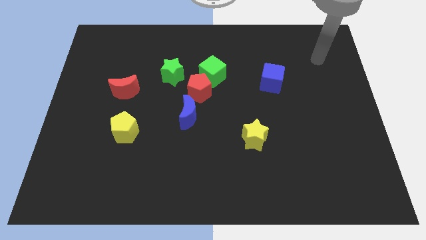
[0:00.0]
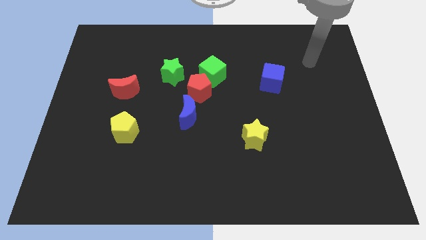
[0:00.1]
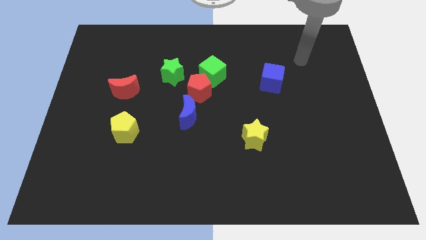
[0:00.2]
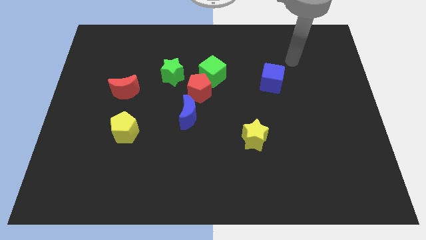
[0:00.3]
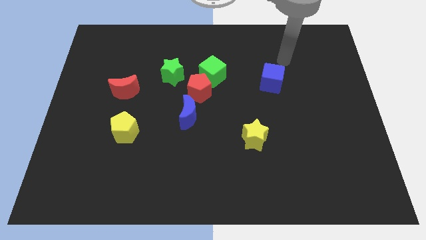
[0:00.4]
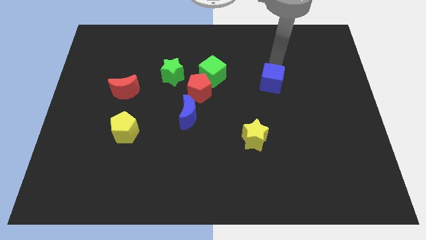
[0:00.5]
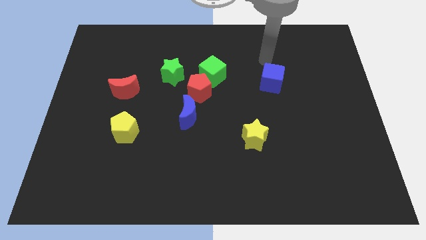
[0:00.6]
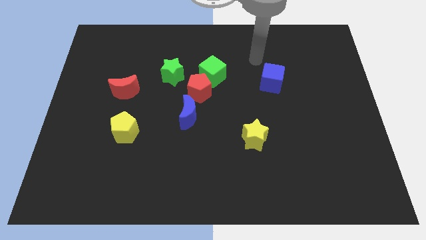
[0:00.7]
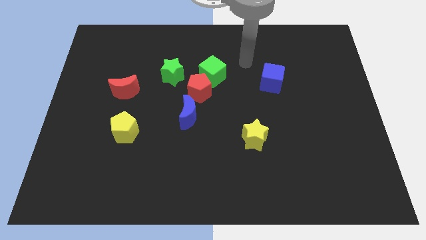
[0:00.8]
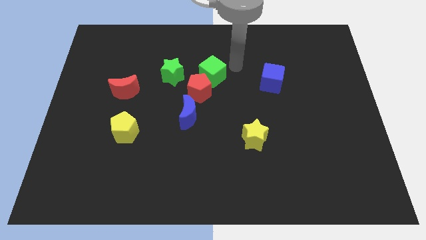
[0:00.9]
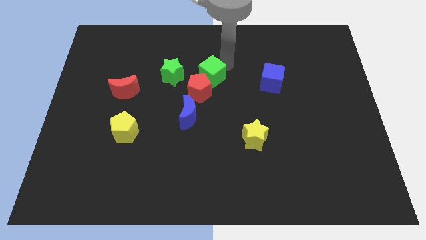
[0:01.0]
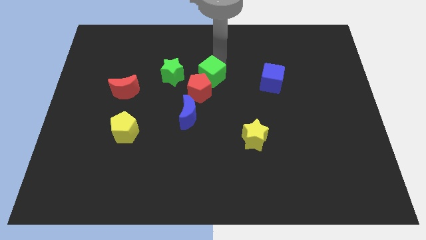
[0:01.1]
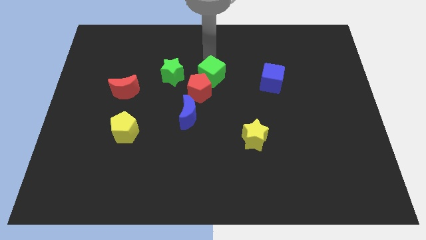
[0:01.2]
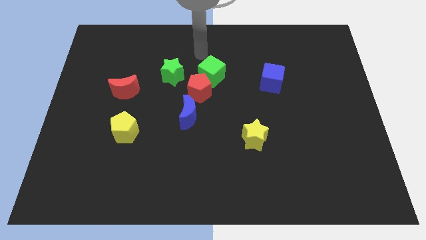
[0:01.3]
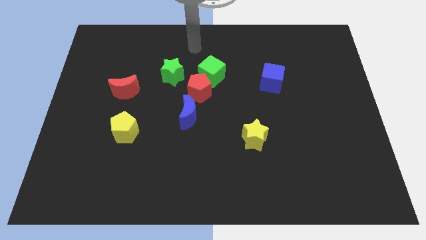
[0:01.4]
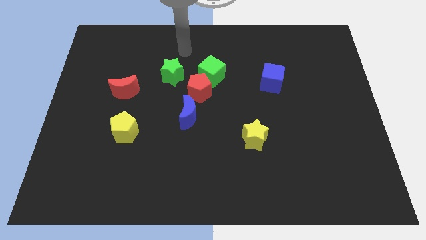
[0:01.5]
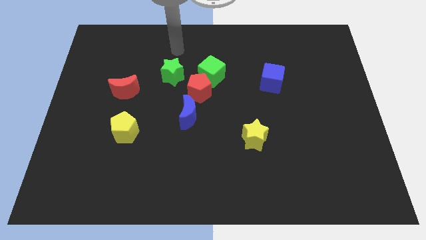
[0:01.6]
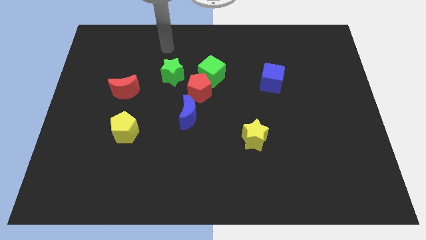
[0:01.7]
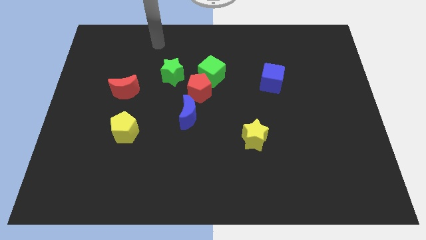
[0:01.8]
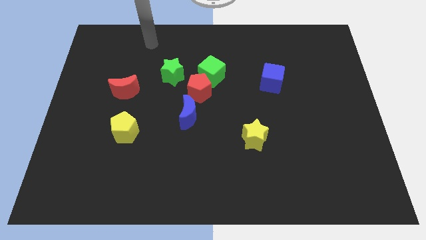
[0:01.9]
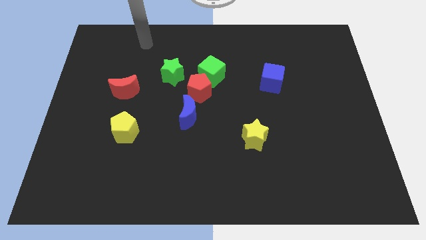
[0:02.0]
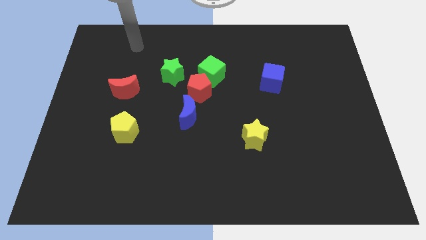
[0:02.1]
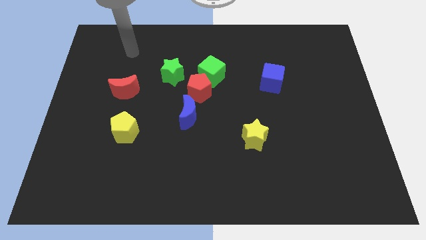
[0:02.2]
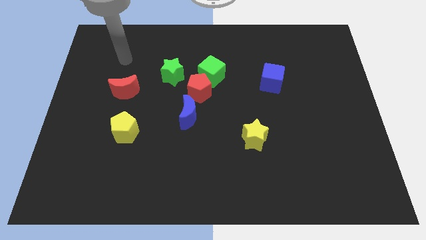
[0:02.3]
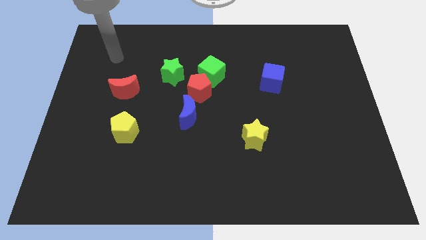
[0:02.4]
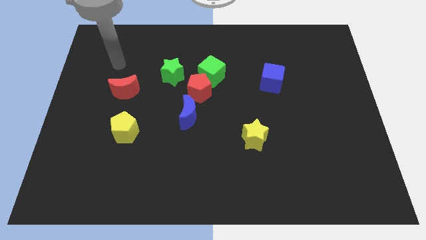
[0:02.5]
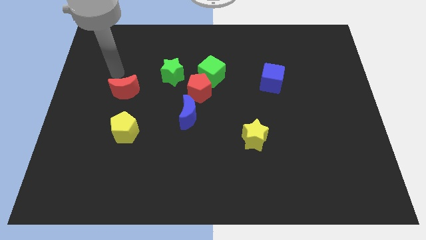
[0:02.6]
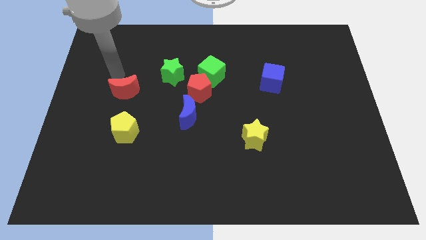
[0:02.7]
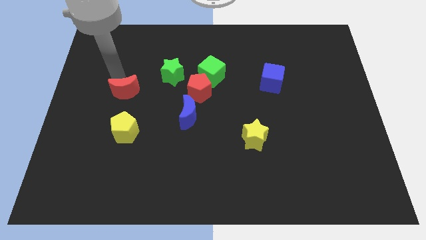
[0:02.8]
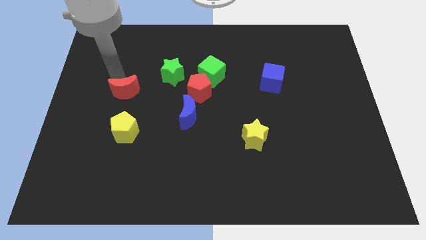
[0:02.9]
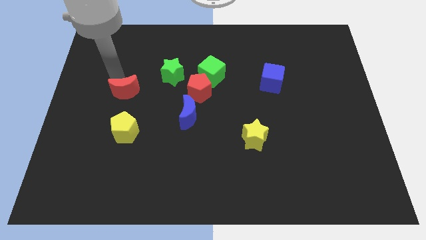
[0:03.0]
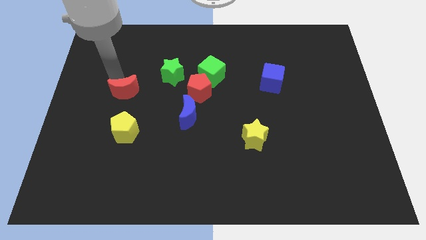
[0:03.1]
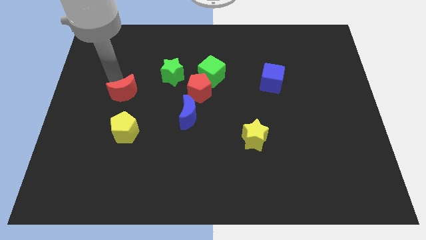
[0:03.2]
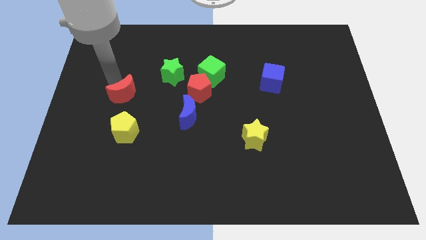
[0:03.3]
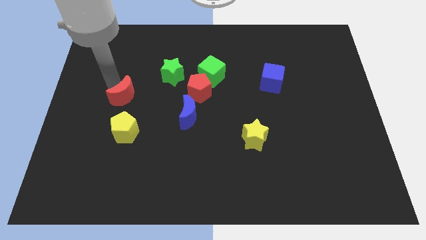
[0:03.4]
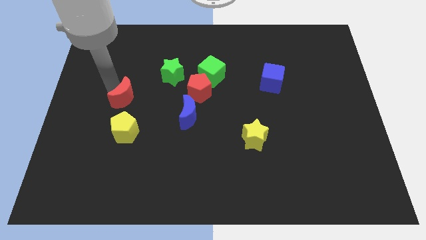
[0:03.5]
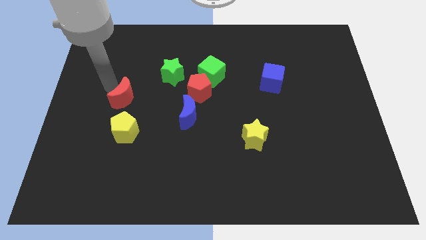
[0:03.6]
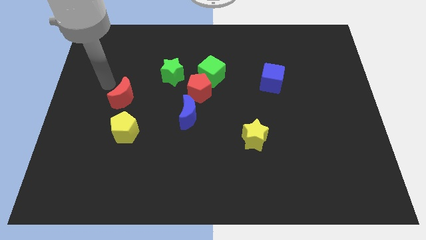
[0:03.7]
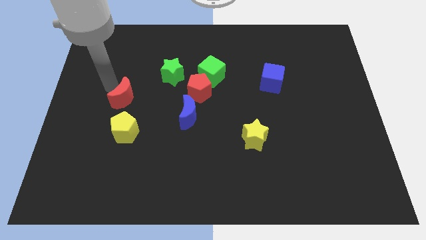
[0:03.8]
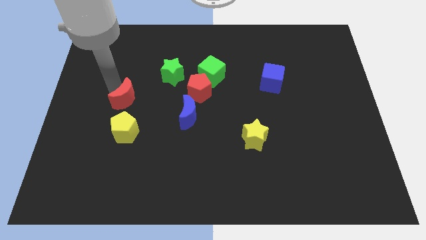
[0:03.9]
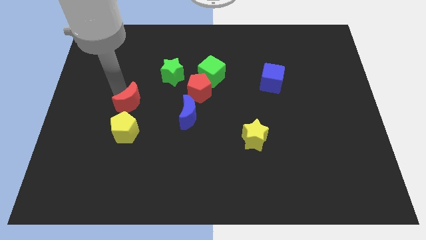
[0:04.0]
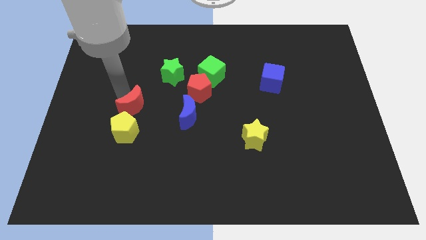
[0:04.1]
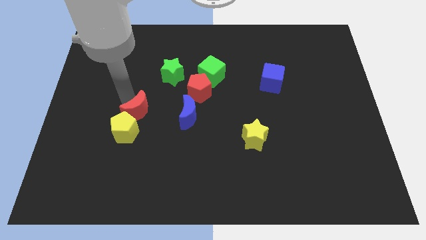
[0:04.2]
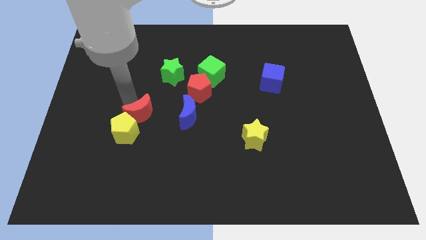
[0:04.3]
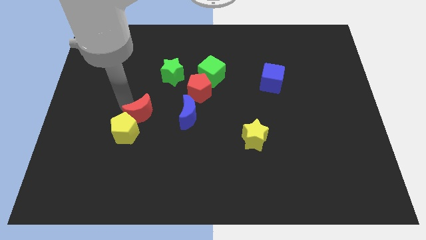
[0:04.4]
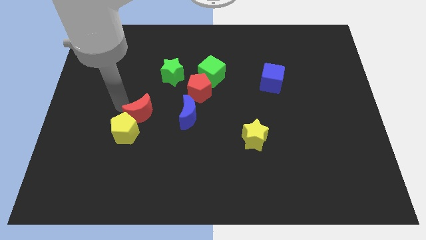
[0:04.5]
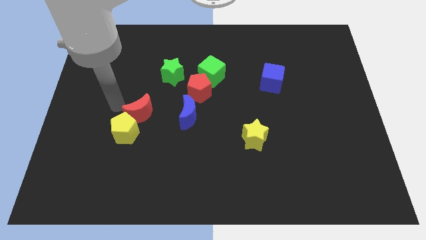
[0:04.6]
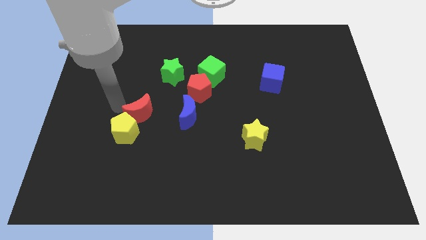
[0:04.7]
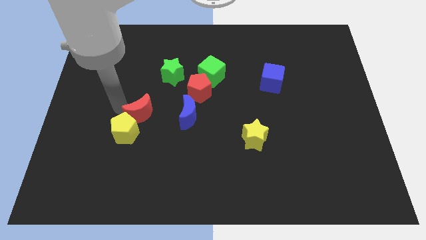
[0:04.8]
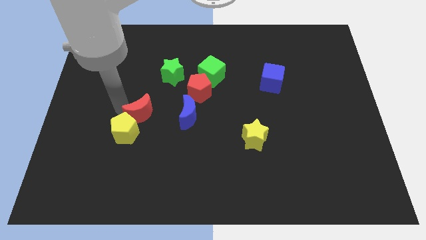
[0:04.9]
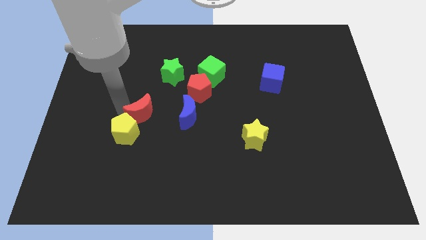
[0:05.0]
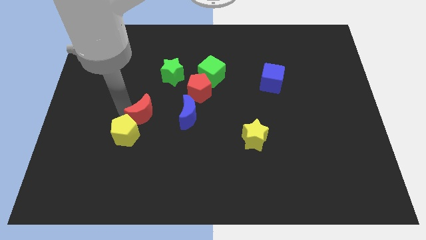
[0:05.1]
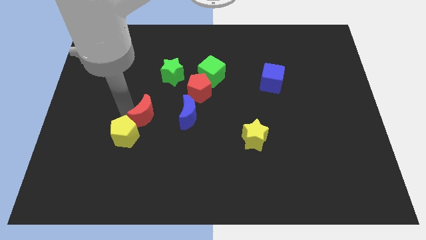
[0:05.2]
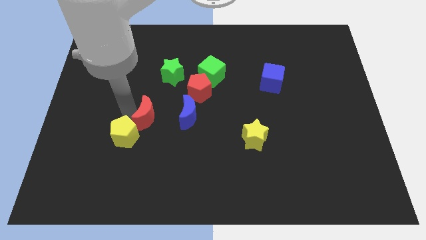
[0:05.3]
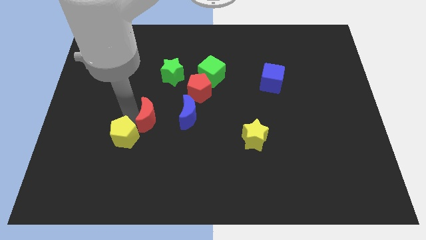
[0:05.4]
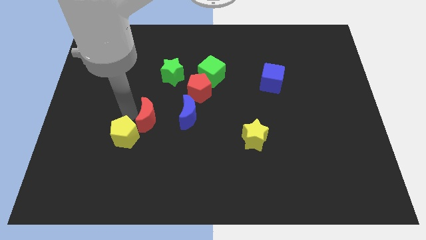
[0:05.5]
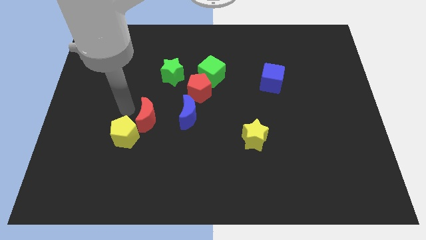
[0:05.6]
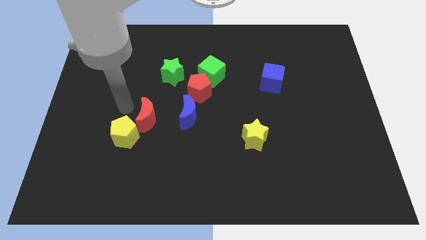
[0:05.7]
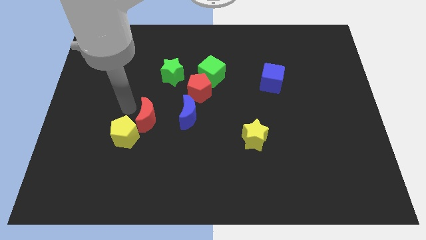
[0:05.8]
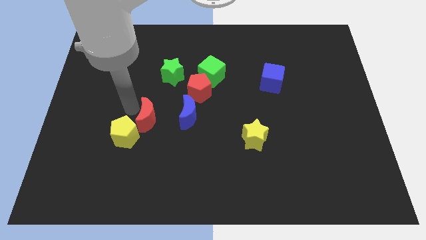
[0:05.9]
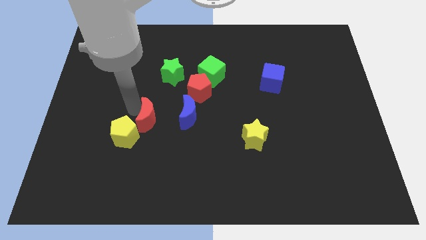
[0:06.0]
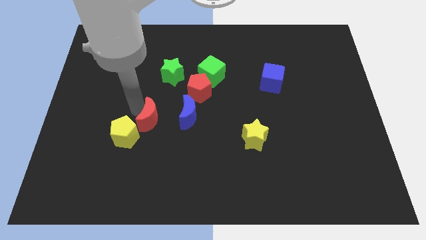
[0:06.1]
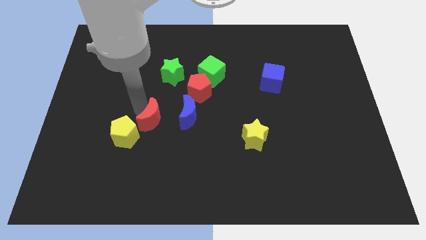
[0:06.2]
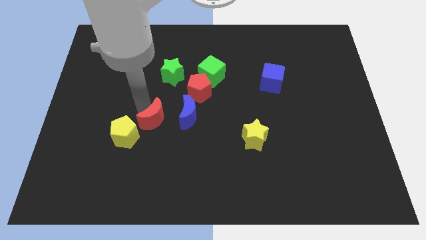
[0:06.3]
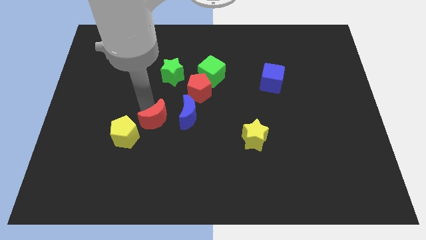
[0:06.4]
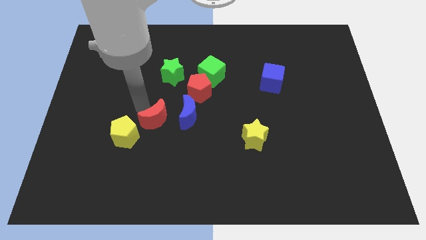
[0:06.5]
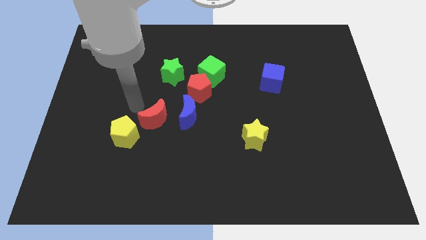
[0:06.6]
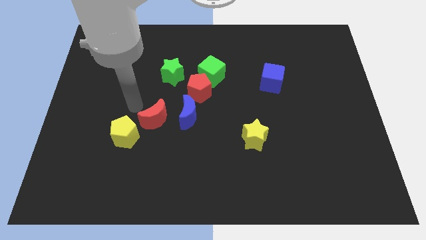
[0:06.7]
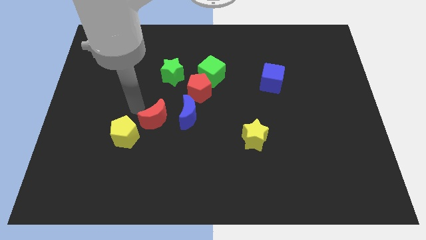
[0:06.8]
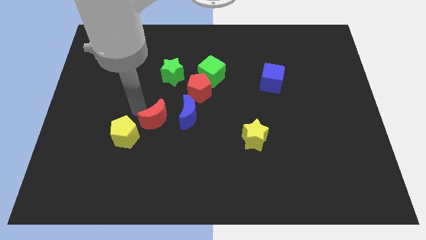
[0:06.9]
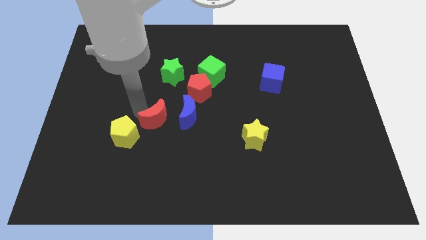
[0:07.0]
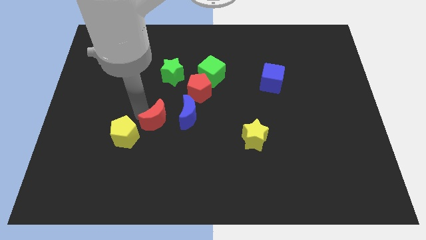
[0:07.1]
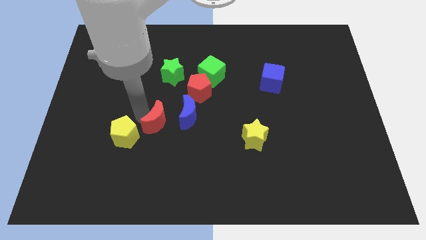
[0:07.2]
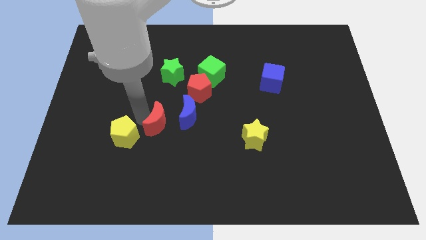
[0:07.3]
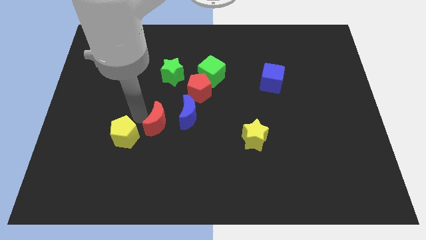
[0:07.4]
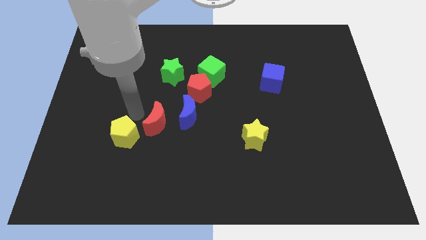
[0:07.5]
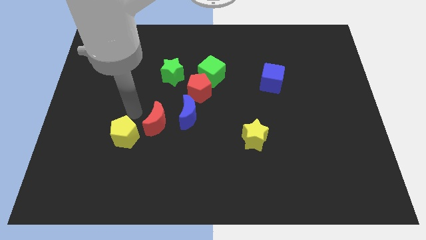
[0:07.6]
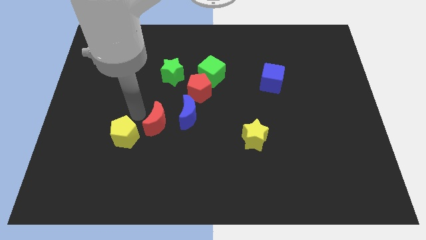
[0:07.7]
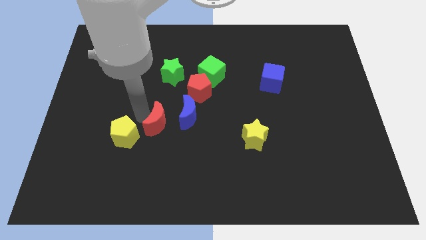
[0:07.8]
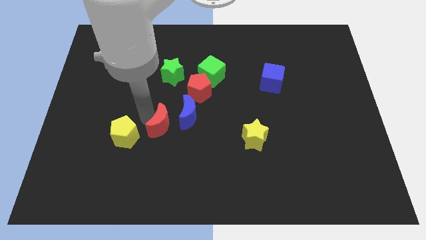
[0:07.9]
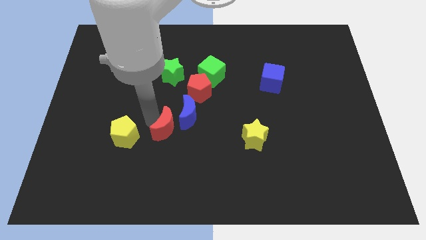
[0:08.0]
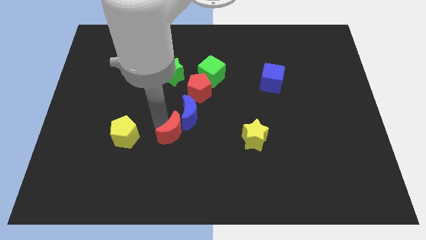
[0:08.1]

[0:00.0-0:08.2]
put the red moon below the blue moon
